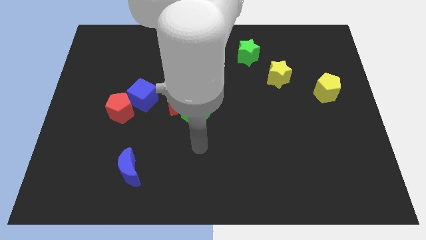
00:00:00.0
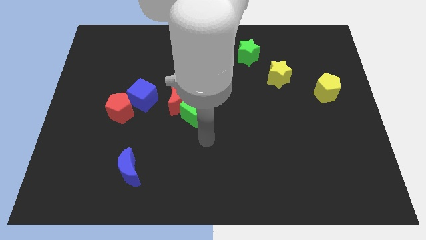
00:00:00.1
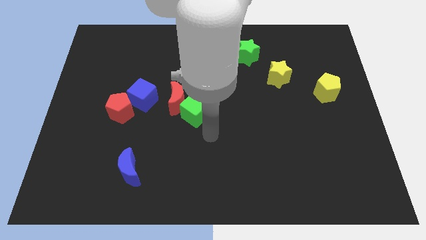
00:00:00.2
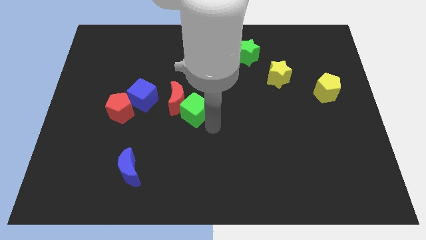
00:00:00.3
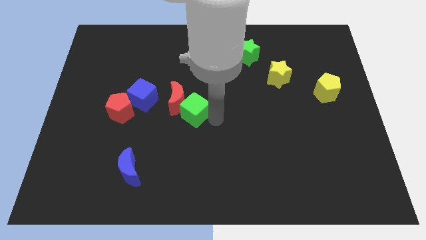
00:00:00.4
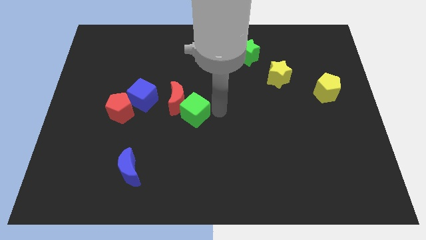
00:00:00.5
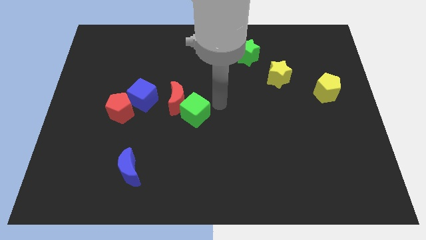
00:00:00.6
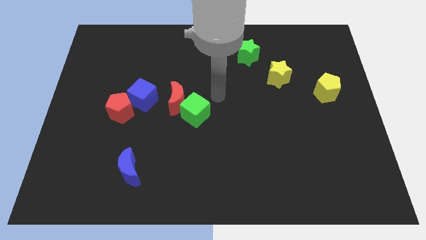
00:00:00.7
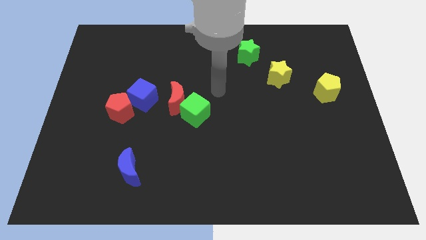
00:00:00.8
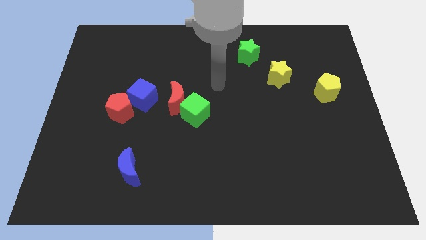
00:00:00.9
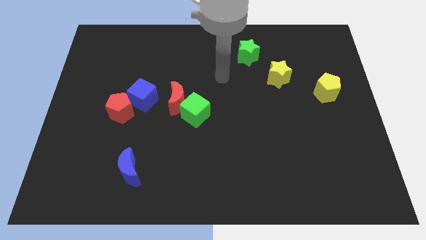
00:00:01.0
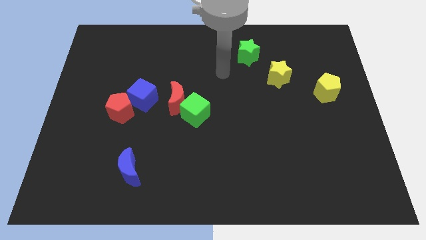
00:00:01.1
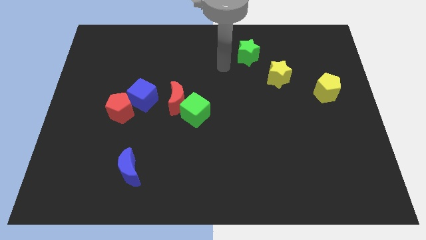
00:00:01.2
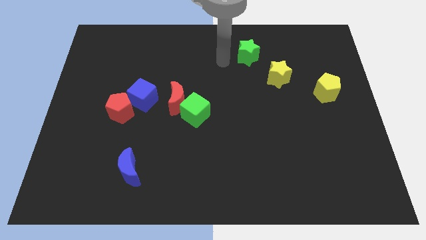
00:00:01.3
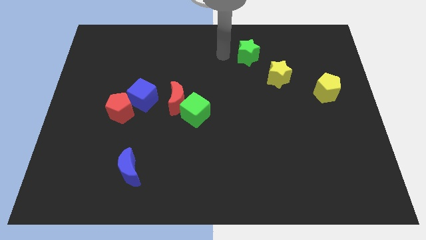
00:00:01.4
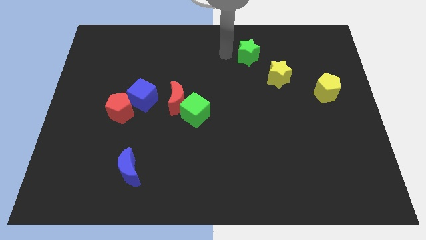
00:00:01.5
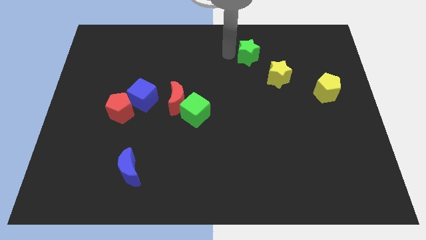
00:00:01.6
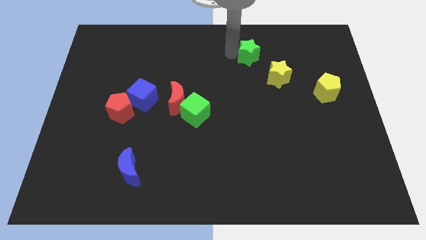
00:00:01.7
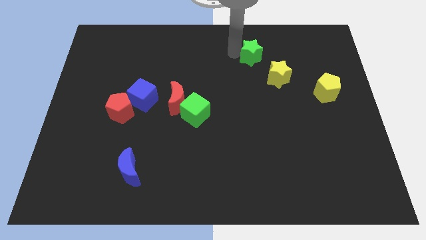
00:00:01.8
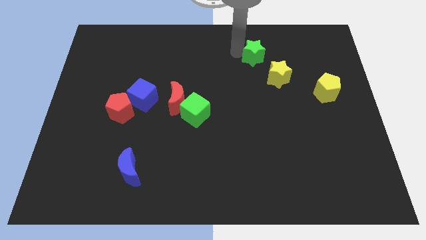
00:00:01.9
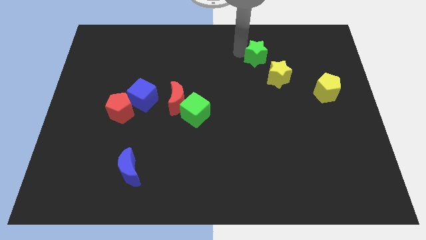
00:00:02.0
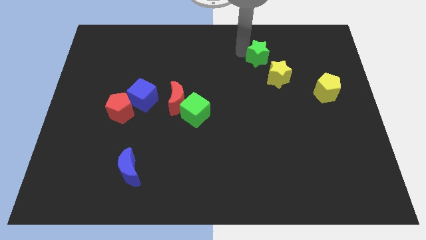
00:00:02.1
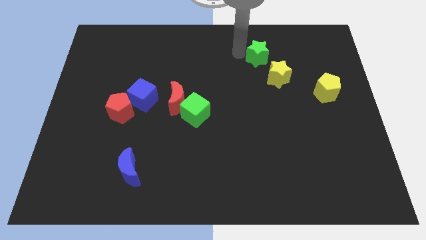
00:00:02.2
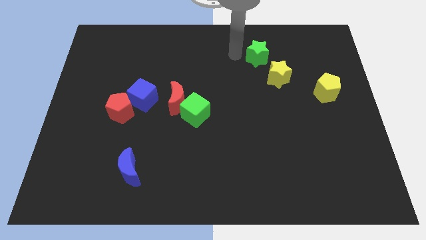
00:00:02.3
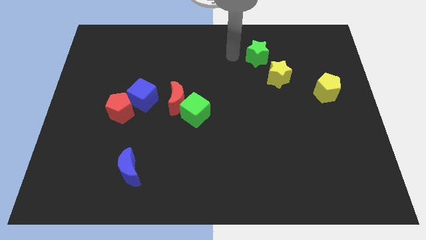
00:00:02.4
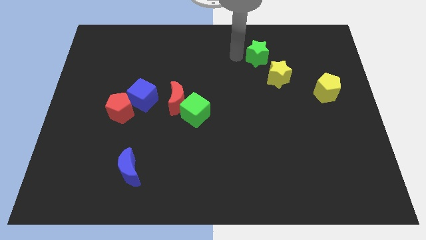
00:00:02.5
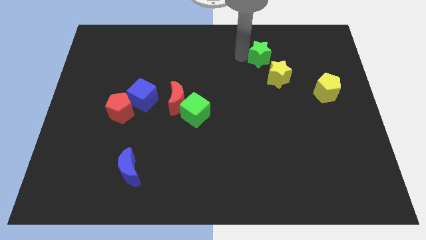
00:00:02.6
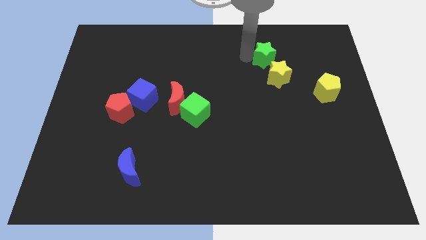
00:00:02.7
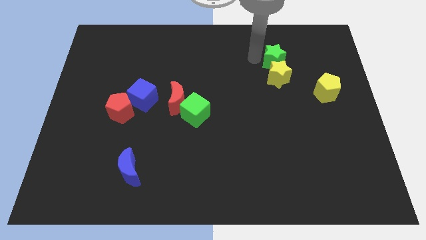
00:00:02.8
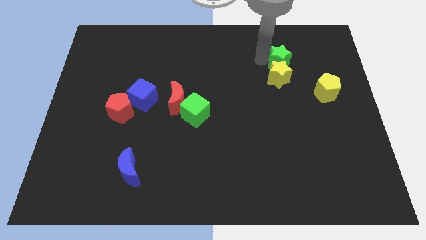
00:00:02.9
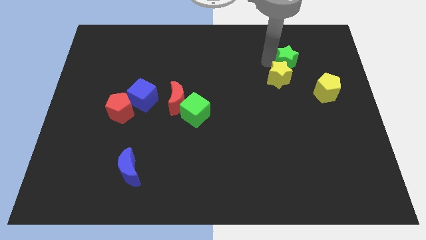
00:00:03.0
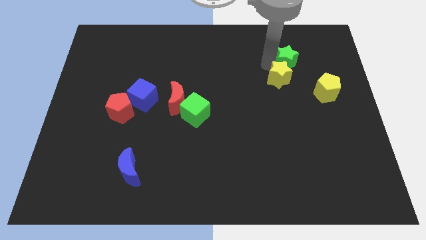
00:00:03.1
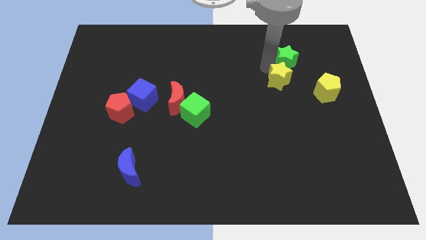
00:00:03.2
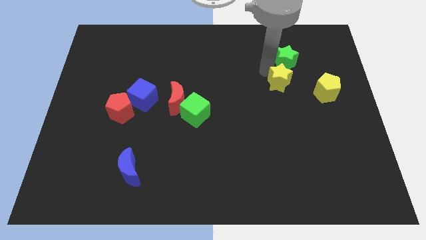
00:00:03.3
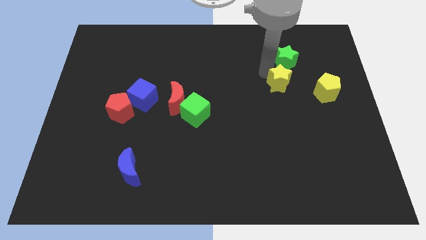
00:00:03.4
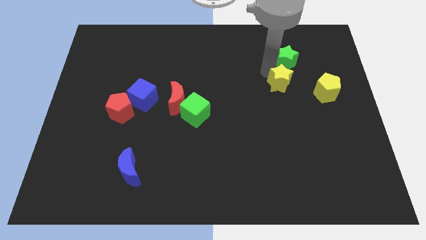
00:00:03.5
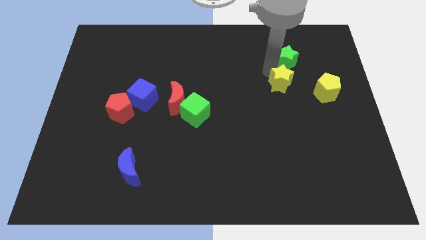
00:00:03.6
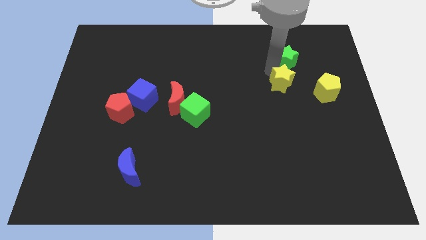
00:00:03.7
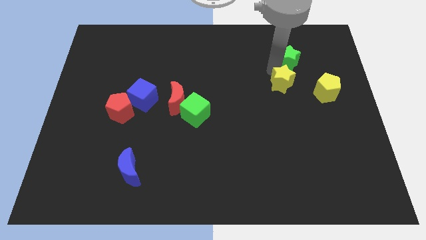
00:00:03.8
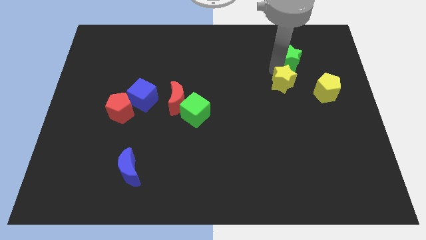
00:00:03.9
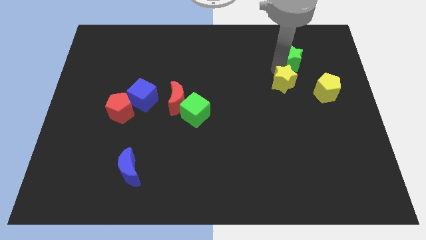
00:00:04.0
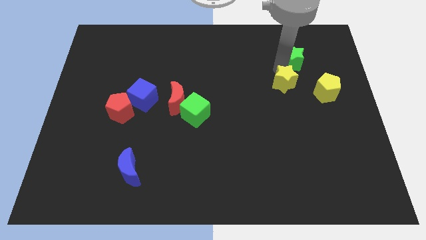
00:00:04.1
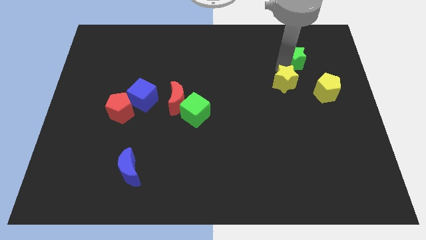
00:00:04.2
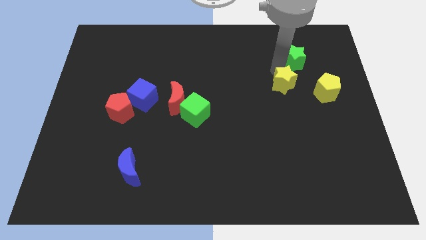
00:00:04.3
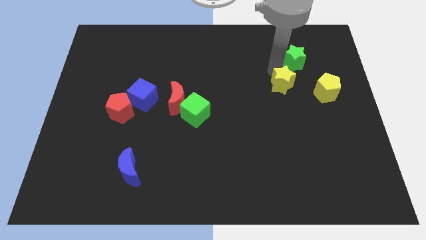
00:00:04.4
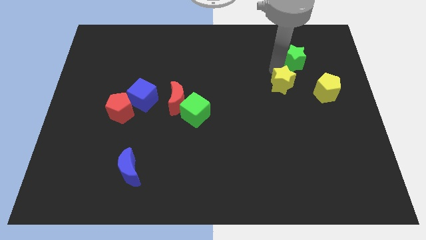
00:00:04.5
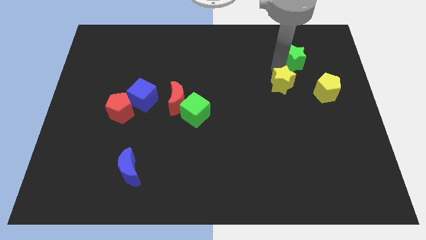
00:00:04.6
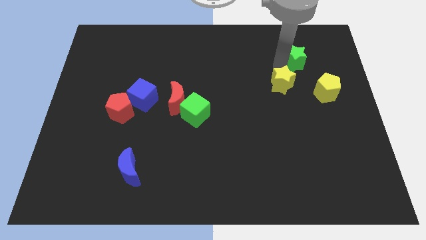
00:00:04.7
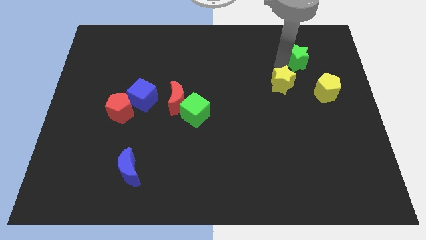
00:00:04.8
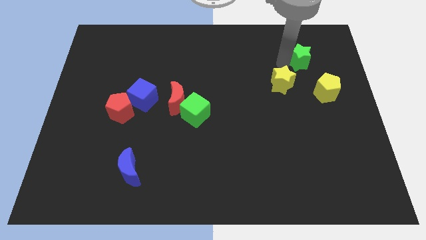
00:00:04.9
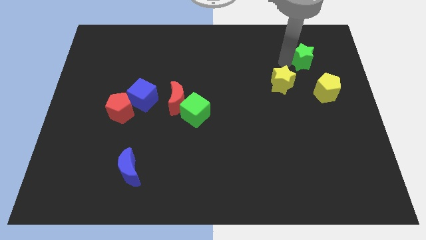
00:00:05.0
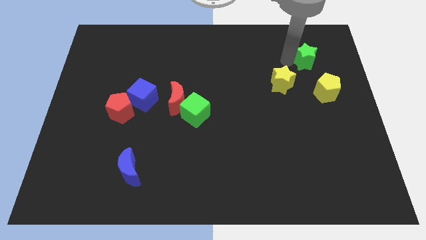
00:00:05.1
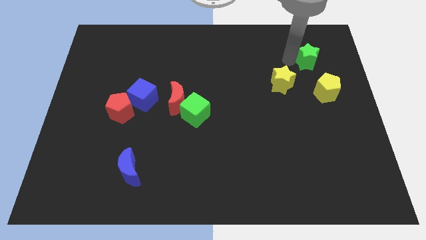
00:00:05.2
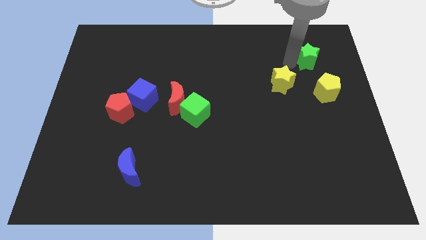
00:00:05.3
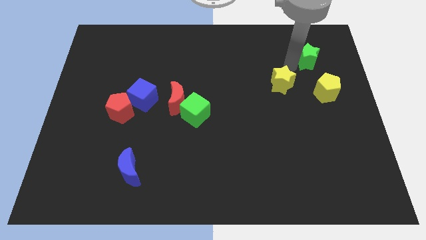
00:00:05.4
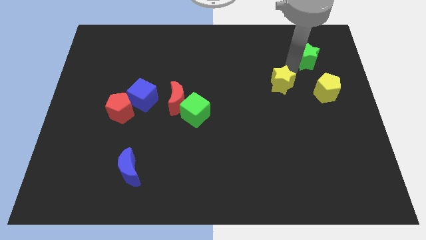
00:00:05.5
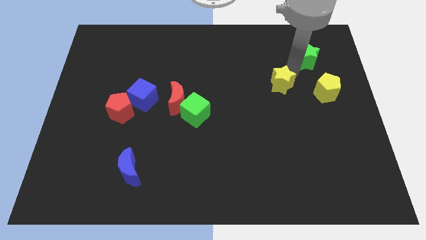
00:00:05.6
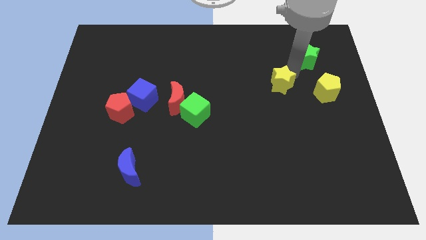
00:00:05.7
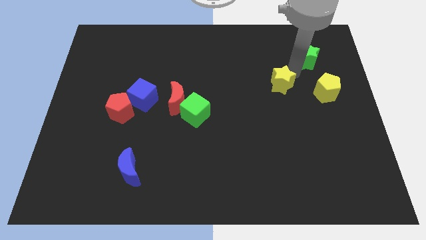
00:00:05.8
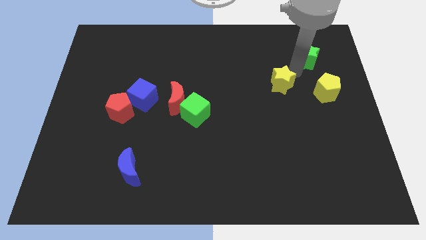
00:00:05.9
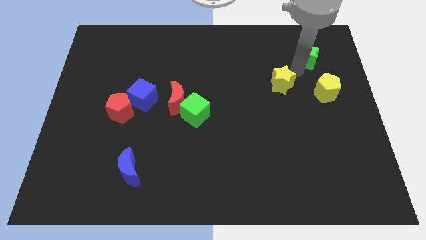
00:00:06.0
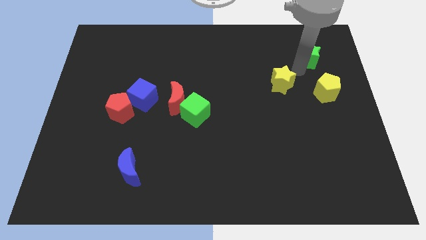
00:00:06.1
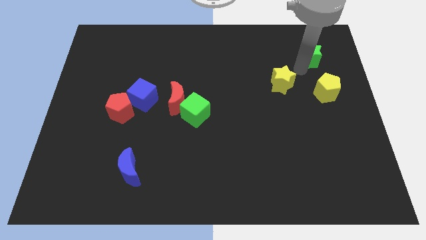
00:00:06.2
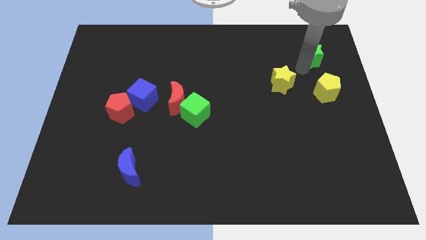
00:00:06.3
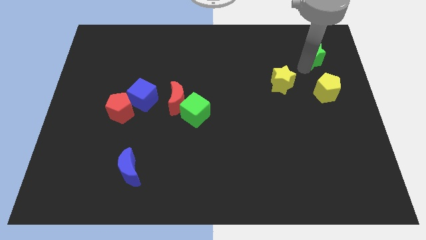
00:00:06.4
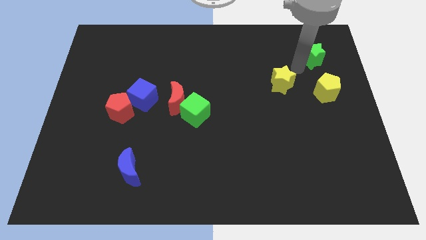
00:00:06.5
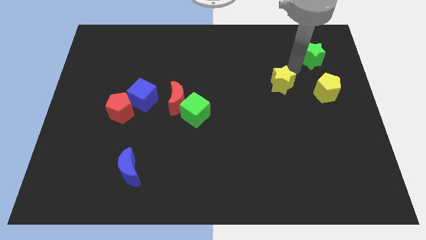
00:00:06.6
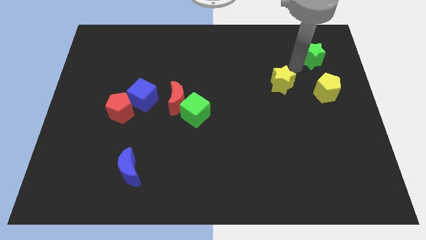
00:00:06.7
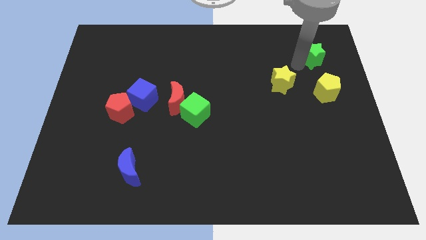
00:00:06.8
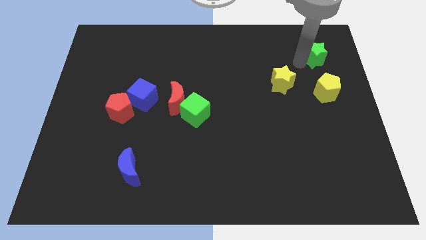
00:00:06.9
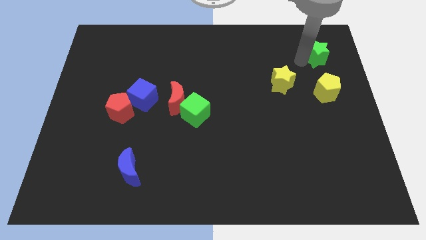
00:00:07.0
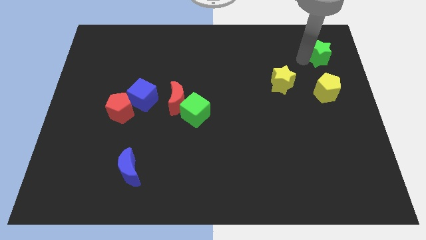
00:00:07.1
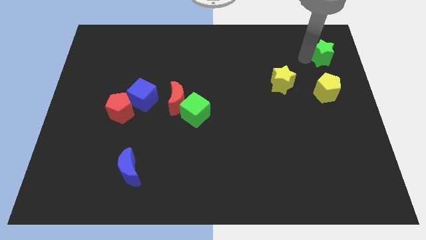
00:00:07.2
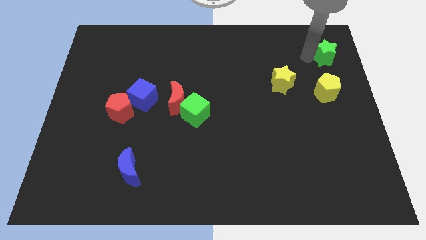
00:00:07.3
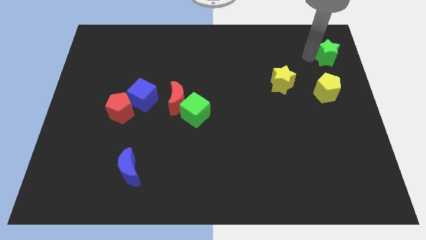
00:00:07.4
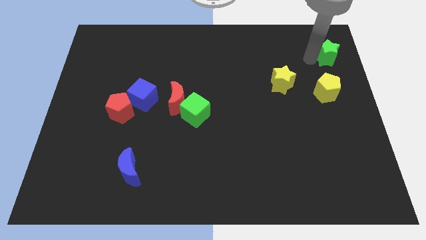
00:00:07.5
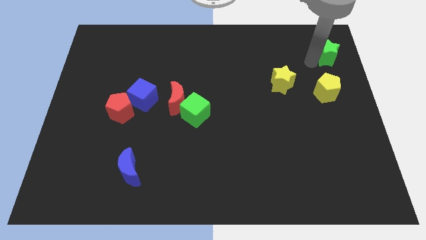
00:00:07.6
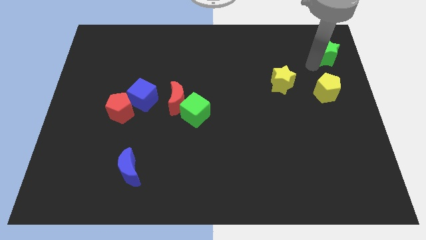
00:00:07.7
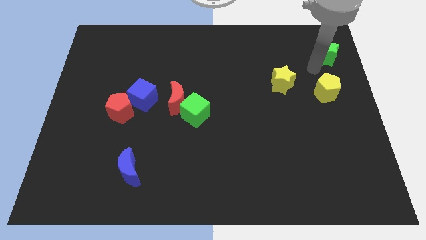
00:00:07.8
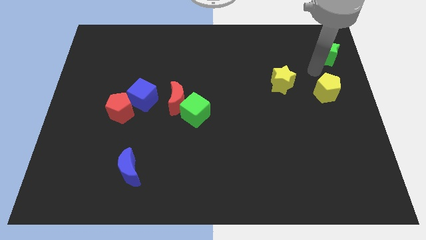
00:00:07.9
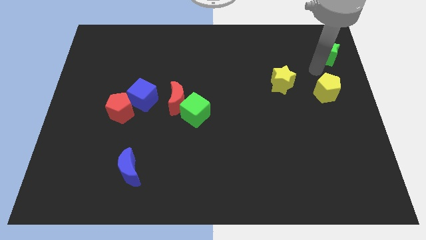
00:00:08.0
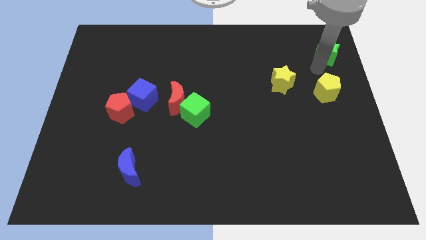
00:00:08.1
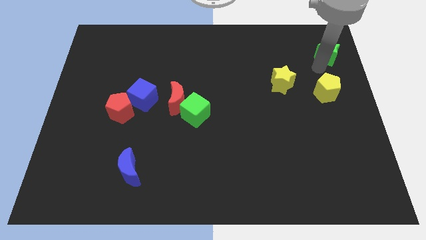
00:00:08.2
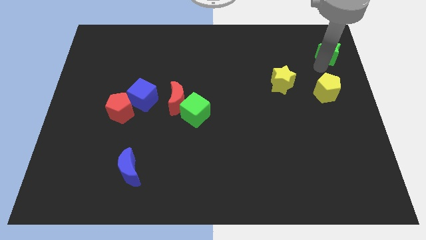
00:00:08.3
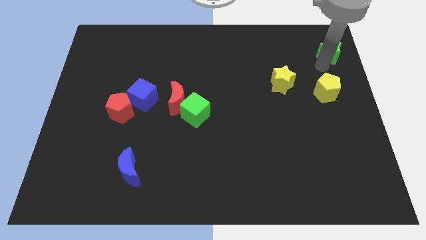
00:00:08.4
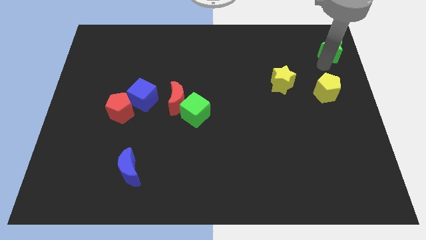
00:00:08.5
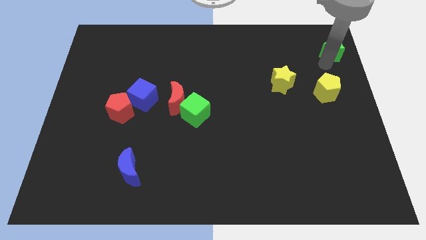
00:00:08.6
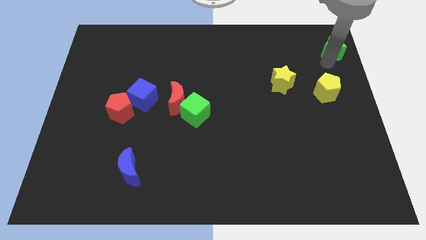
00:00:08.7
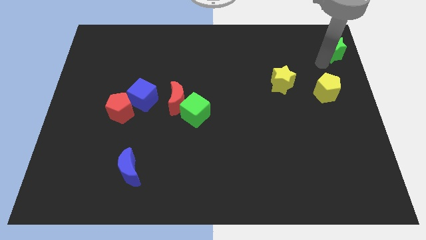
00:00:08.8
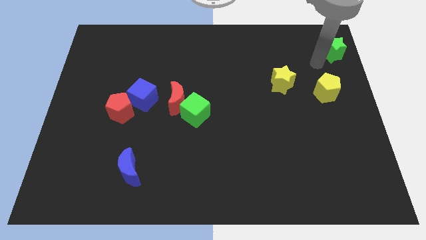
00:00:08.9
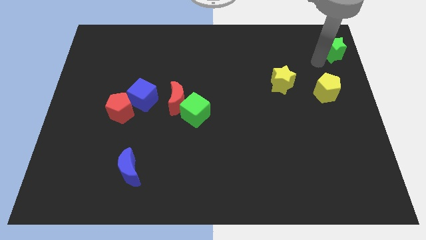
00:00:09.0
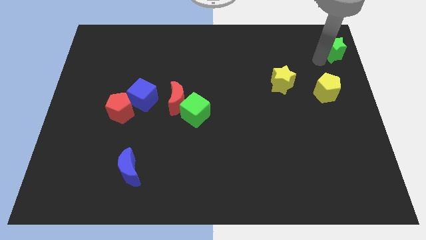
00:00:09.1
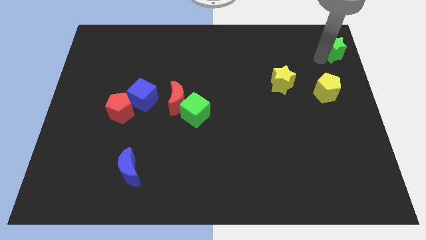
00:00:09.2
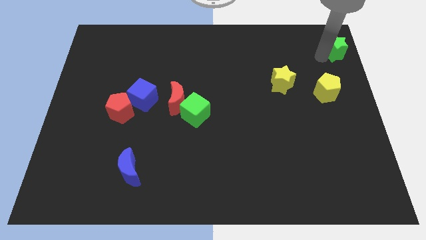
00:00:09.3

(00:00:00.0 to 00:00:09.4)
move the green star to the top right
